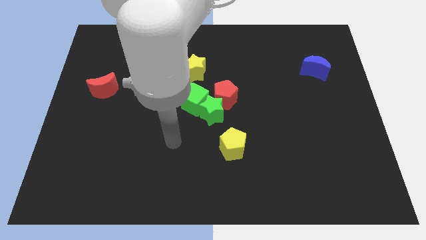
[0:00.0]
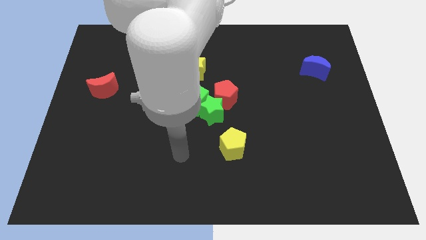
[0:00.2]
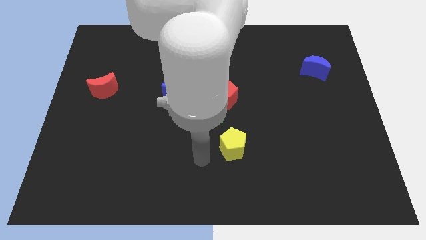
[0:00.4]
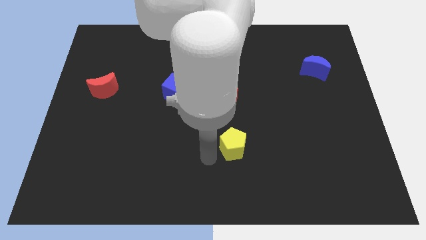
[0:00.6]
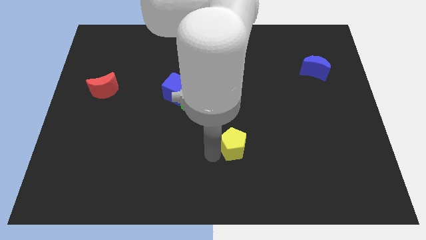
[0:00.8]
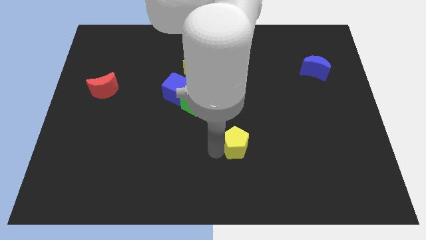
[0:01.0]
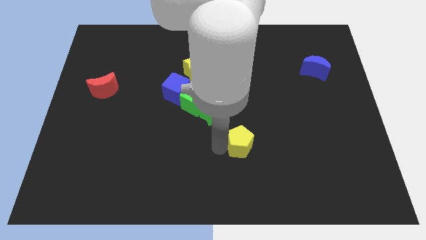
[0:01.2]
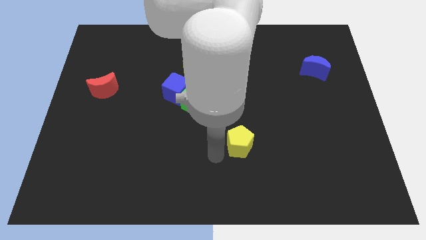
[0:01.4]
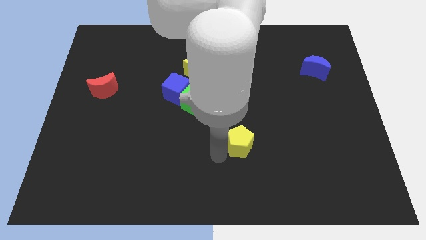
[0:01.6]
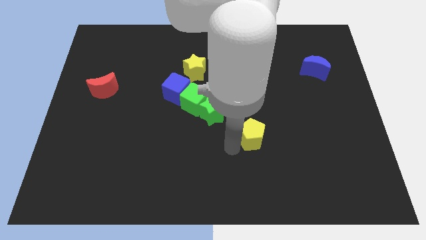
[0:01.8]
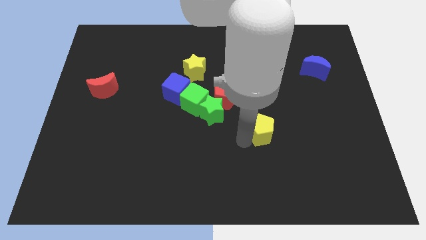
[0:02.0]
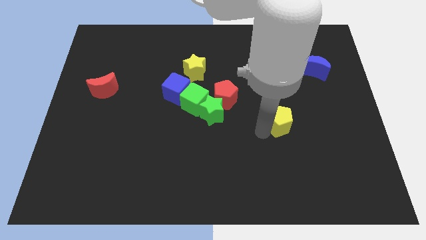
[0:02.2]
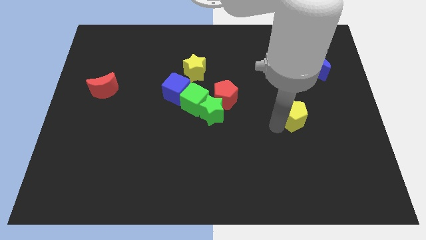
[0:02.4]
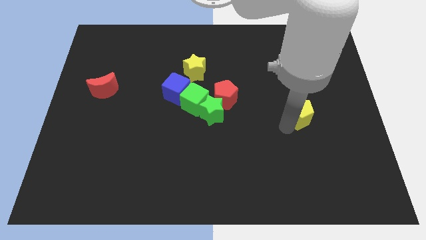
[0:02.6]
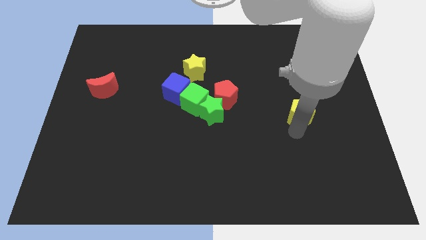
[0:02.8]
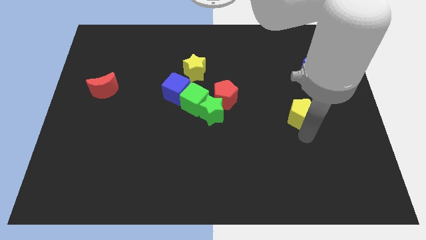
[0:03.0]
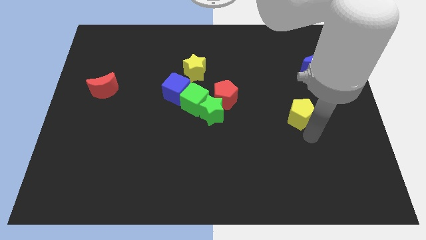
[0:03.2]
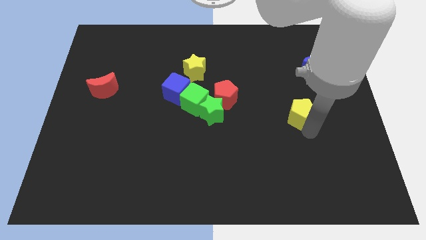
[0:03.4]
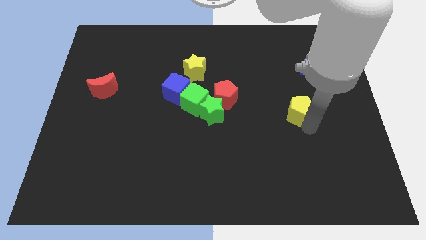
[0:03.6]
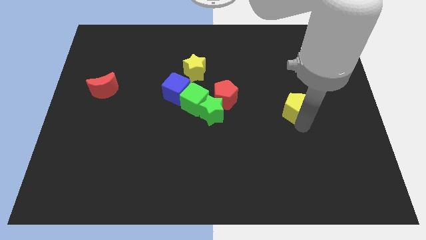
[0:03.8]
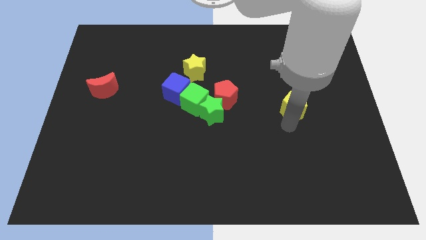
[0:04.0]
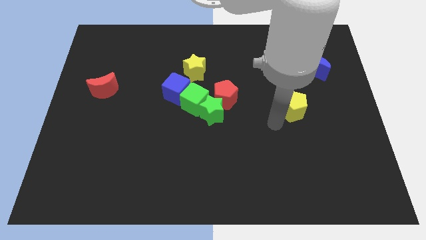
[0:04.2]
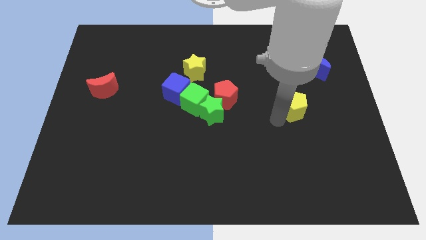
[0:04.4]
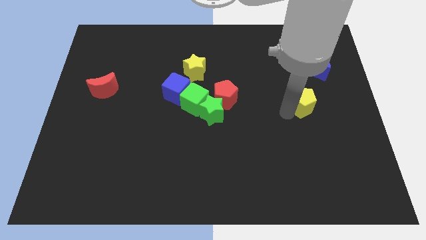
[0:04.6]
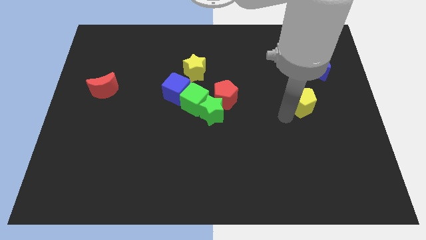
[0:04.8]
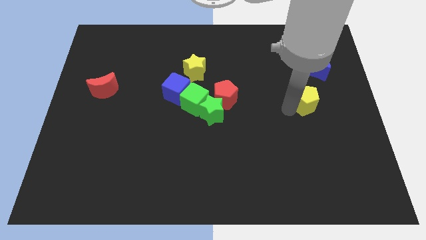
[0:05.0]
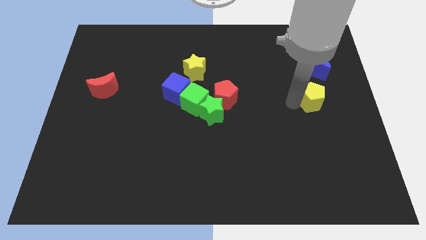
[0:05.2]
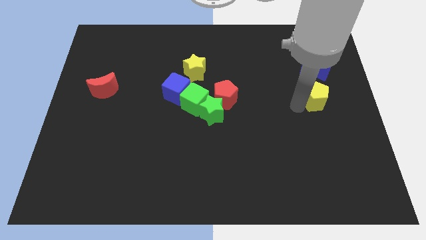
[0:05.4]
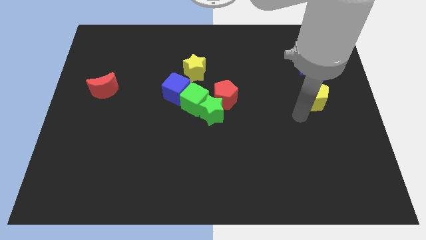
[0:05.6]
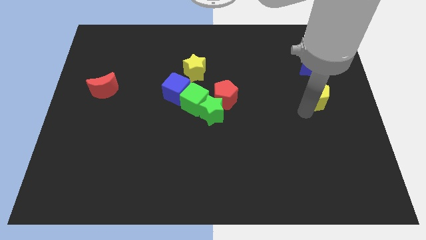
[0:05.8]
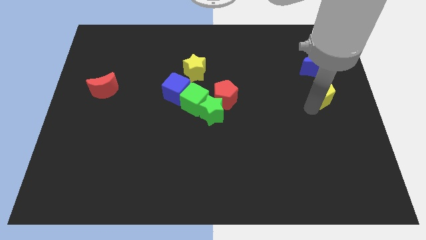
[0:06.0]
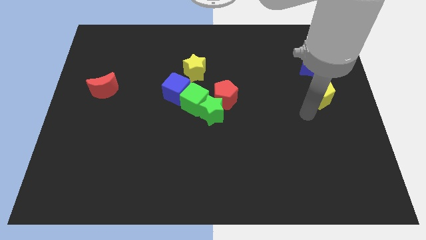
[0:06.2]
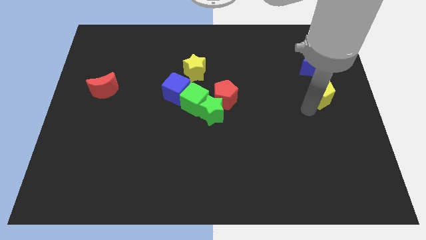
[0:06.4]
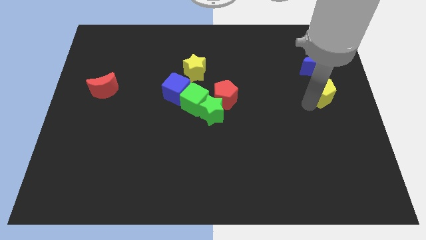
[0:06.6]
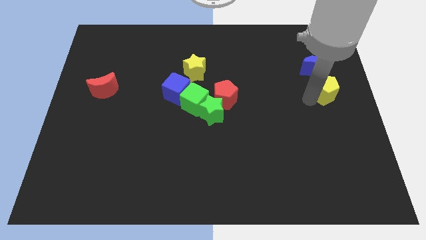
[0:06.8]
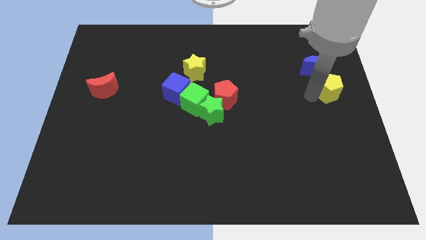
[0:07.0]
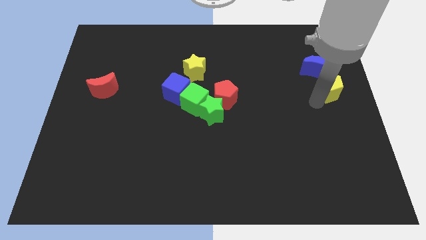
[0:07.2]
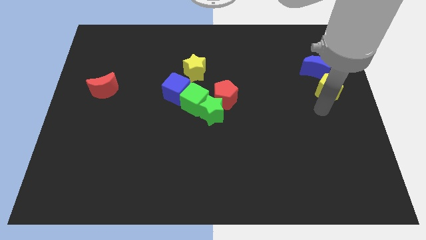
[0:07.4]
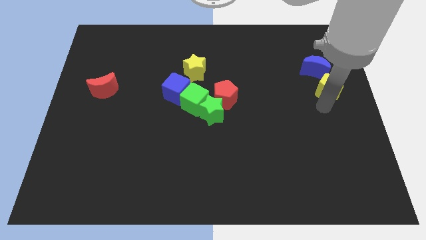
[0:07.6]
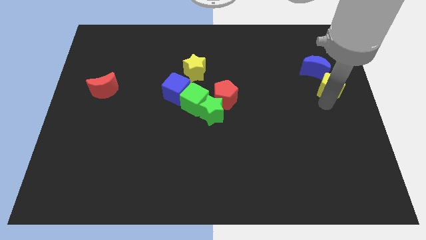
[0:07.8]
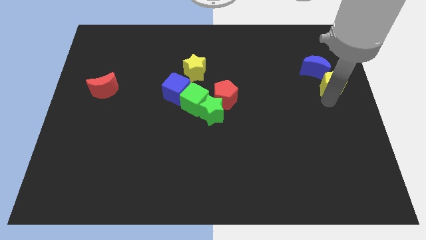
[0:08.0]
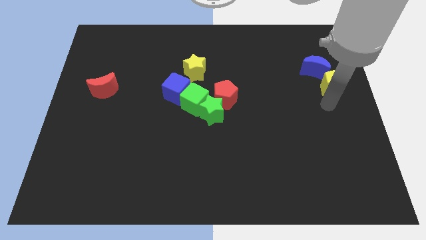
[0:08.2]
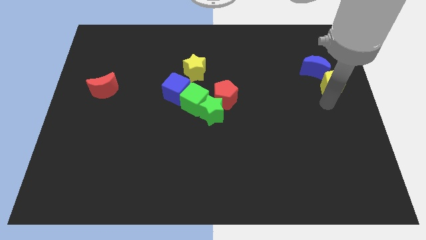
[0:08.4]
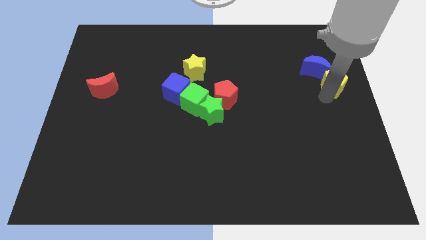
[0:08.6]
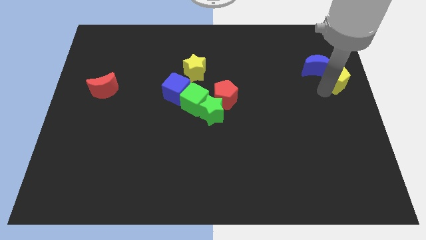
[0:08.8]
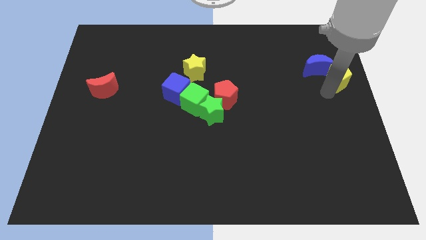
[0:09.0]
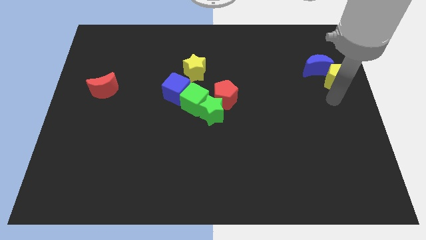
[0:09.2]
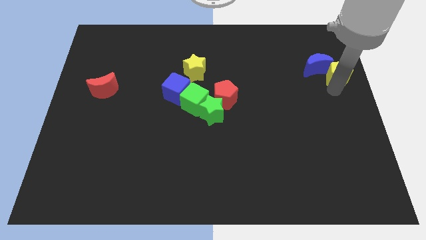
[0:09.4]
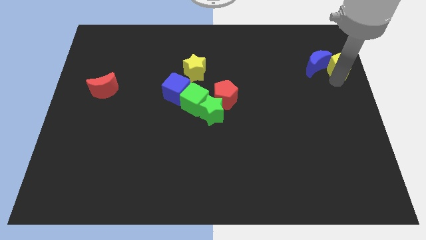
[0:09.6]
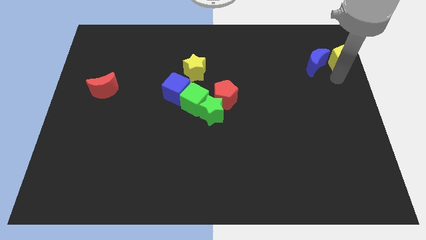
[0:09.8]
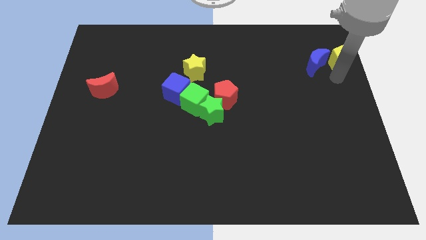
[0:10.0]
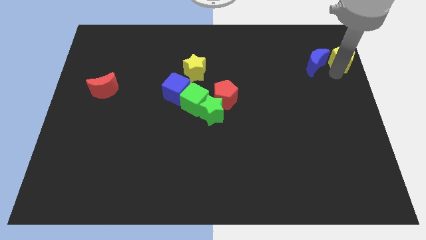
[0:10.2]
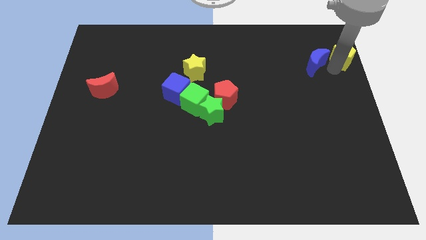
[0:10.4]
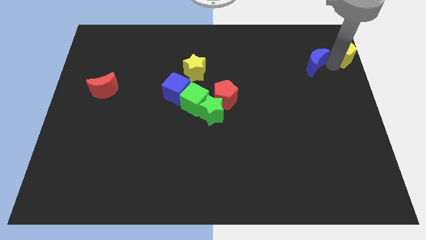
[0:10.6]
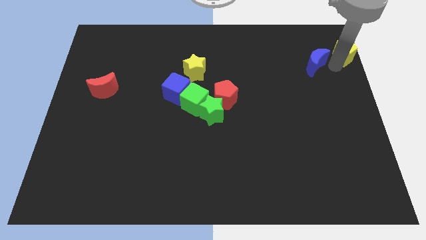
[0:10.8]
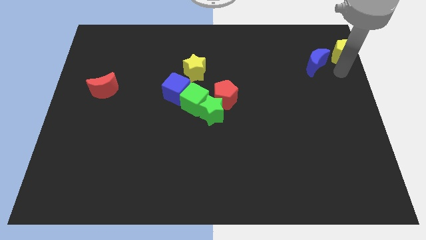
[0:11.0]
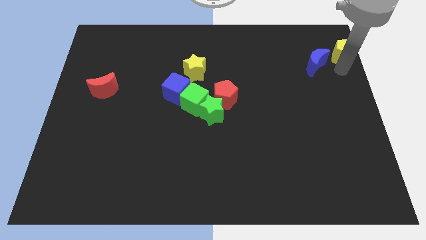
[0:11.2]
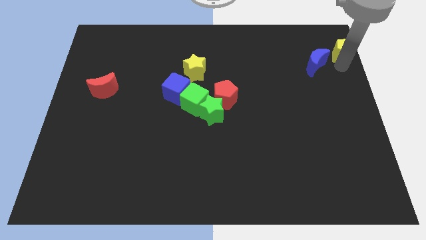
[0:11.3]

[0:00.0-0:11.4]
put the yellow pentagon to the top right

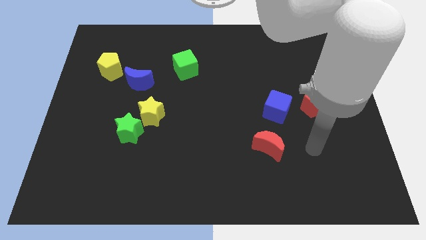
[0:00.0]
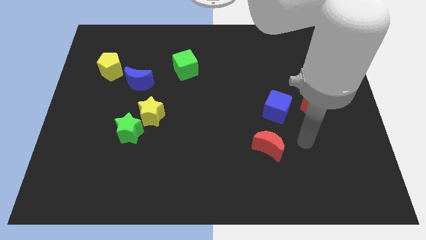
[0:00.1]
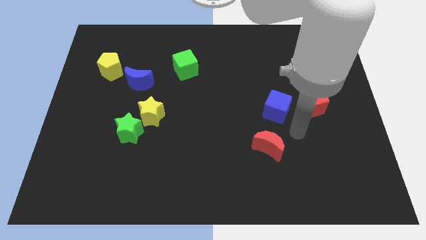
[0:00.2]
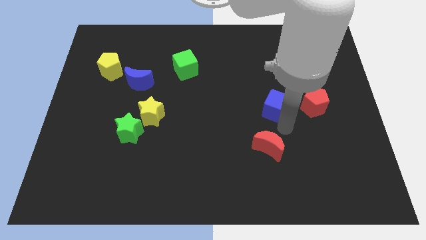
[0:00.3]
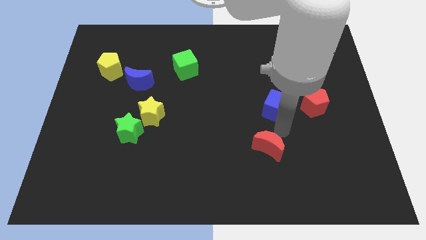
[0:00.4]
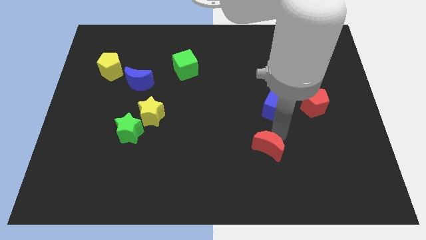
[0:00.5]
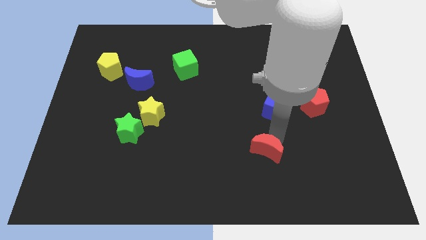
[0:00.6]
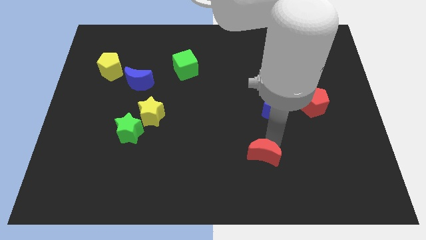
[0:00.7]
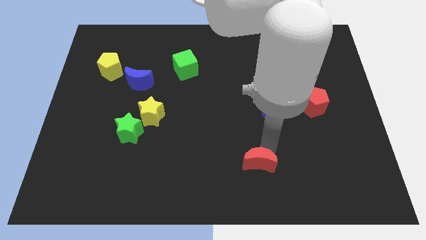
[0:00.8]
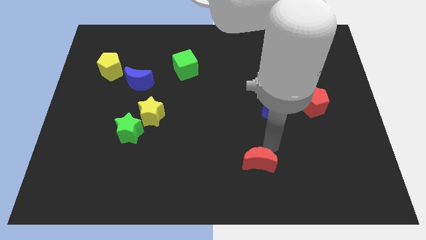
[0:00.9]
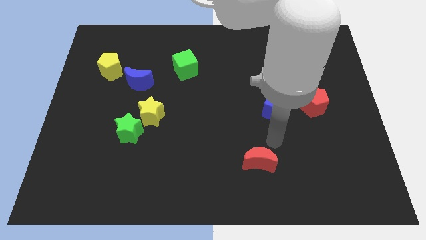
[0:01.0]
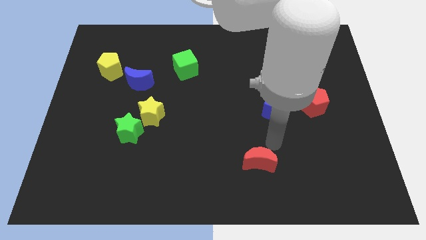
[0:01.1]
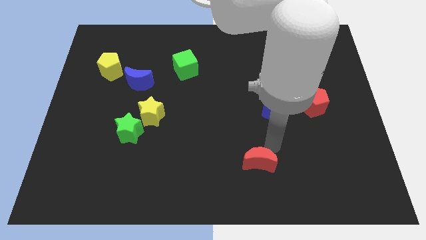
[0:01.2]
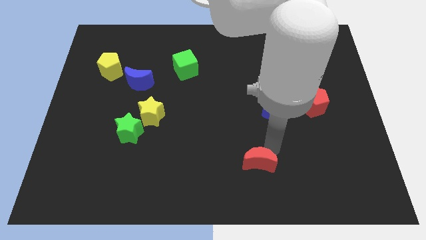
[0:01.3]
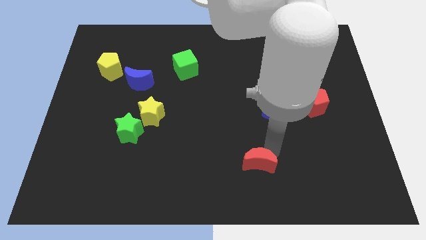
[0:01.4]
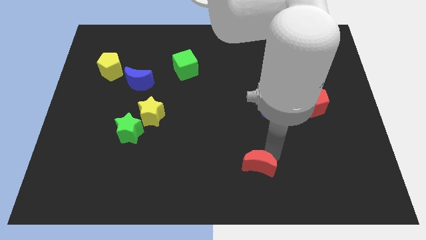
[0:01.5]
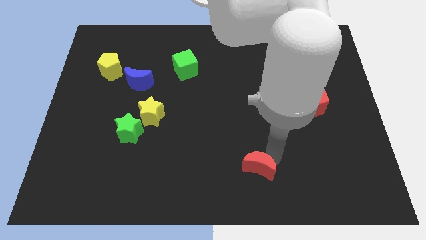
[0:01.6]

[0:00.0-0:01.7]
move the red moon to the bottom
